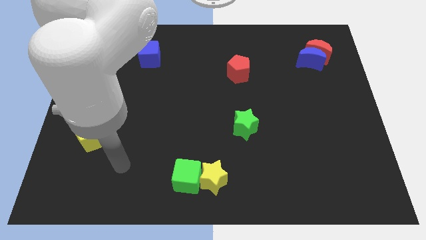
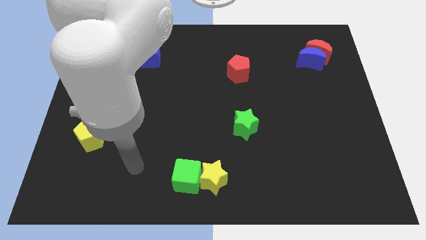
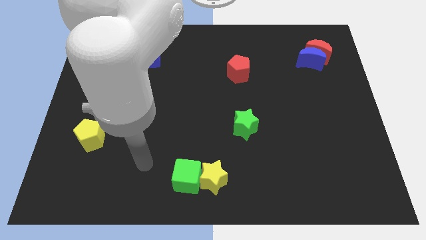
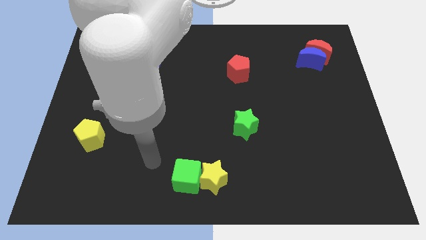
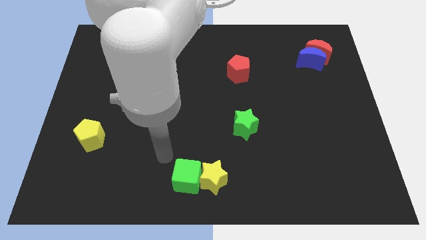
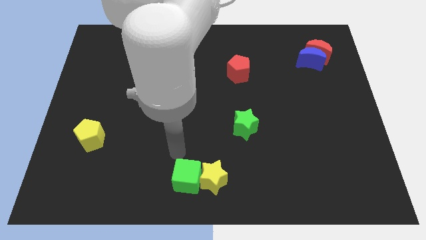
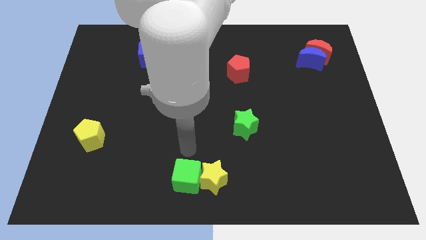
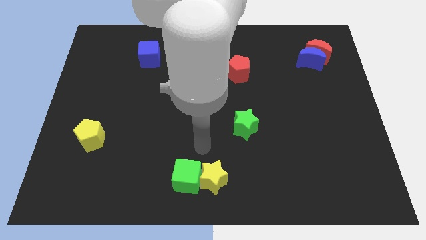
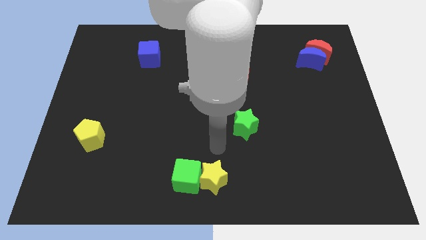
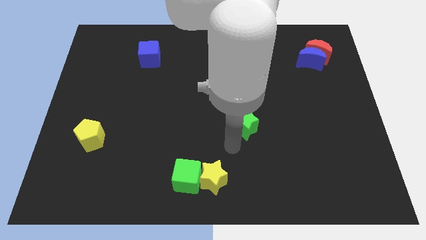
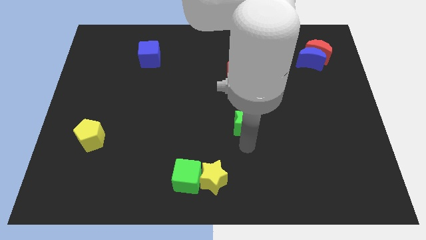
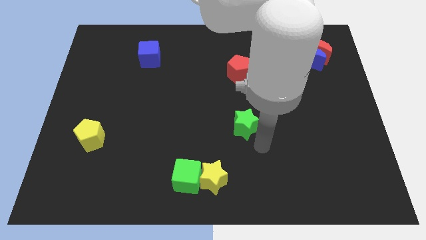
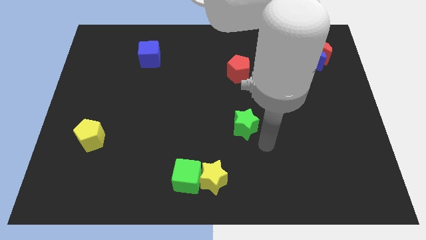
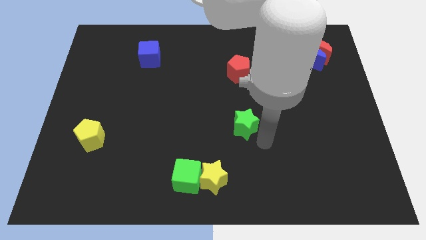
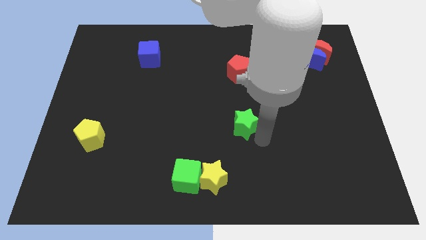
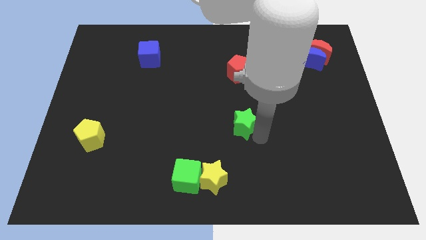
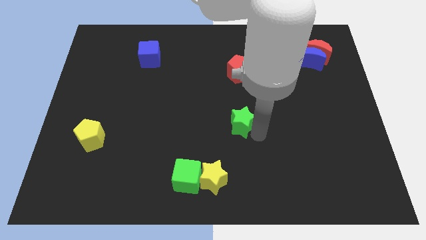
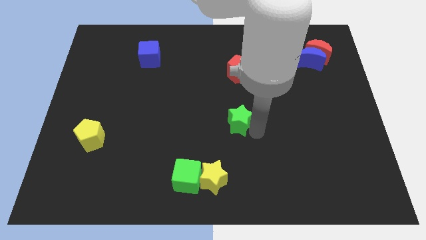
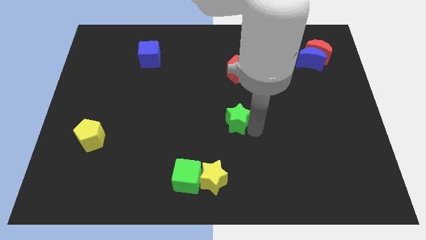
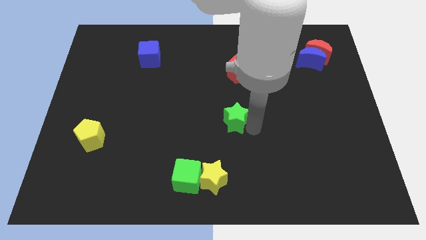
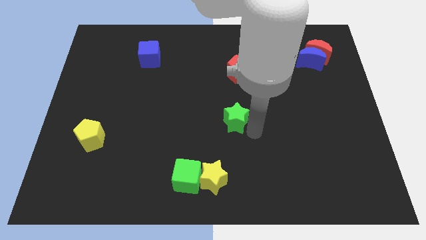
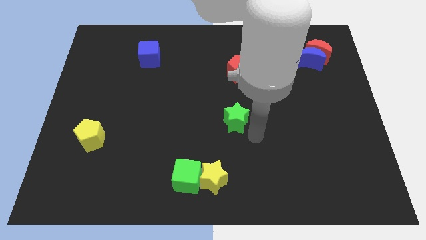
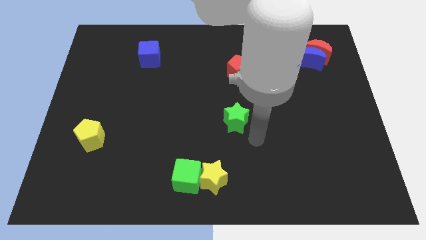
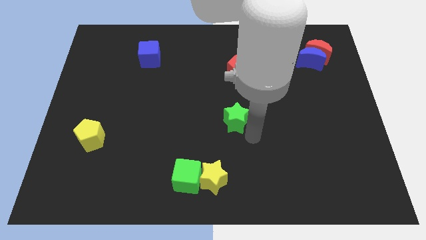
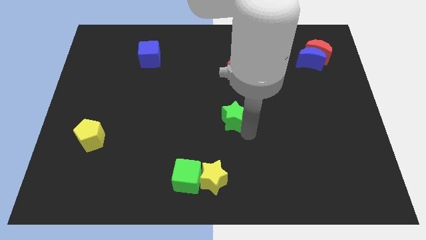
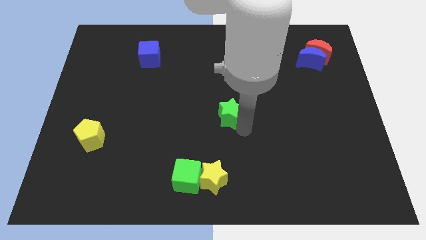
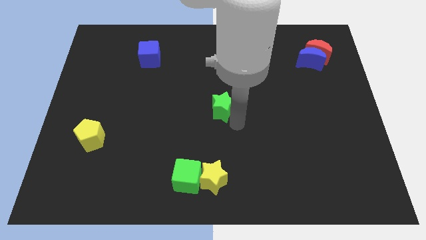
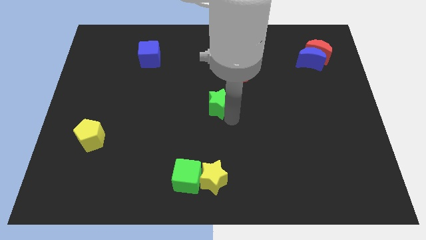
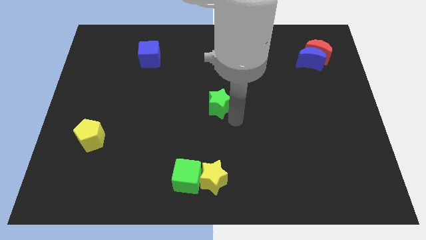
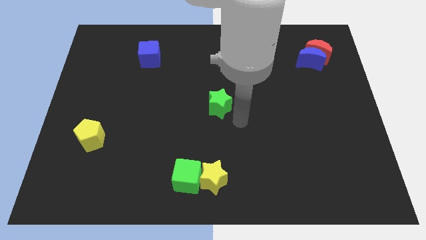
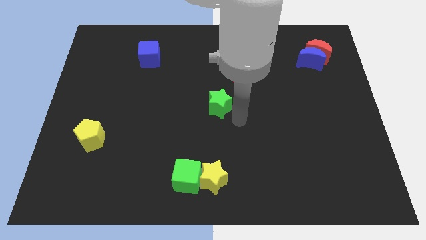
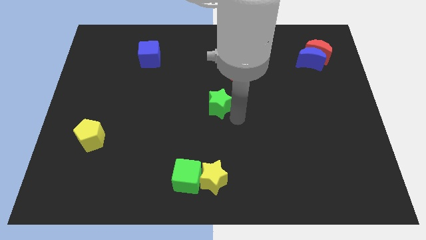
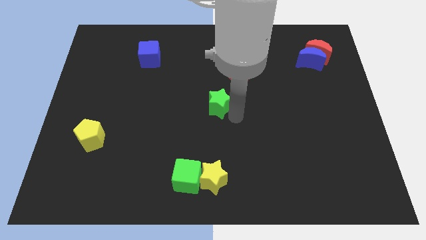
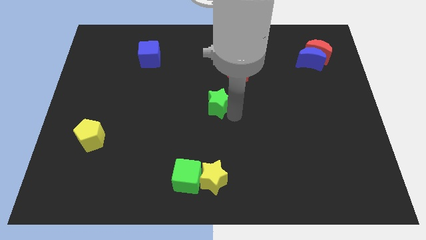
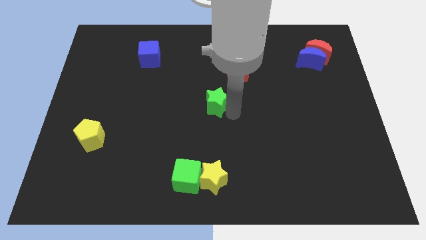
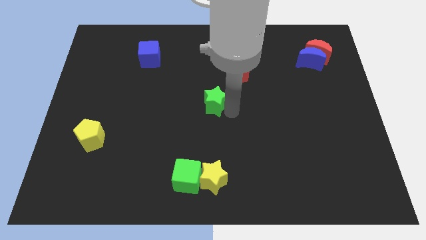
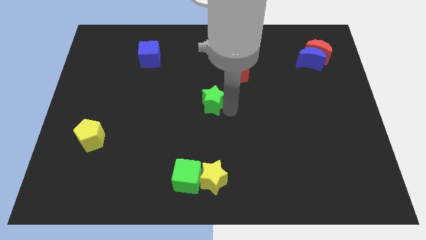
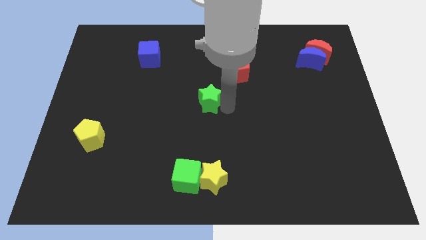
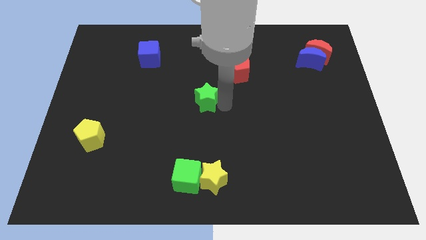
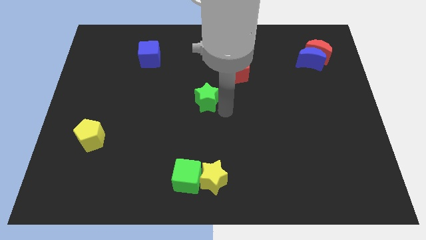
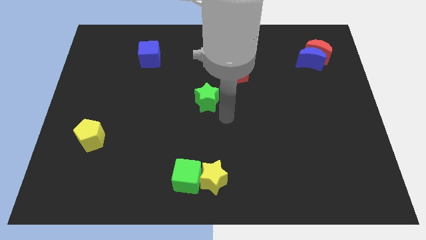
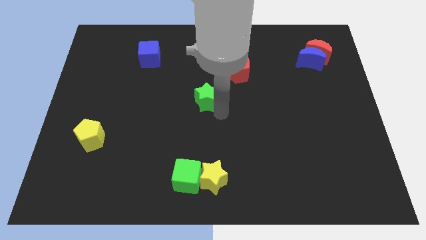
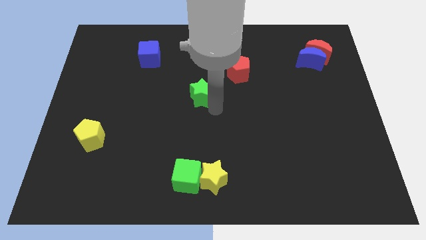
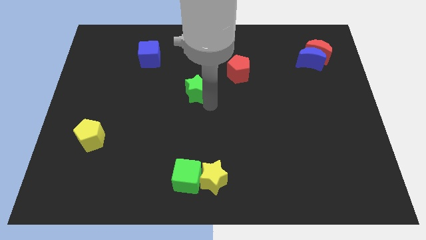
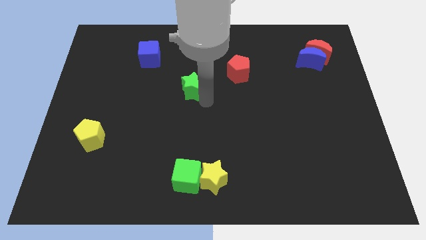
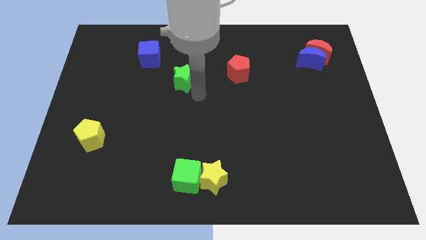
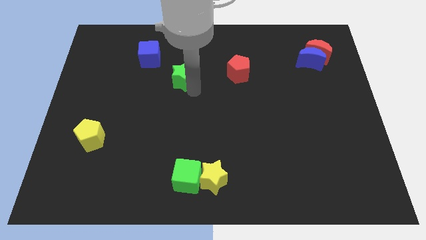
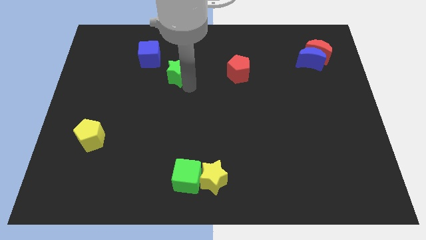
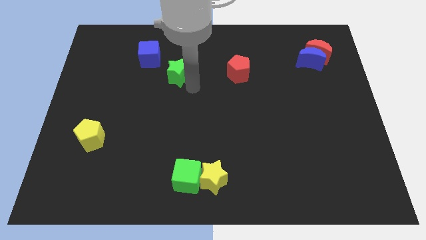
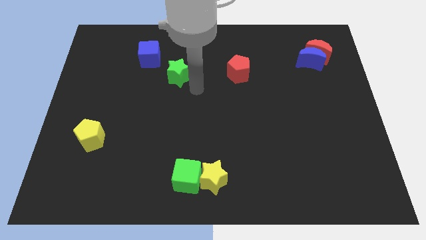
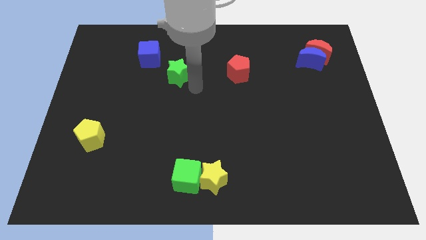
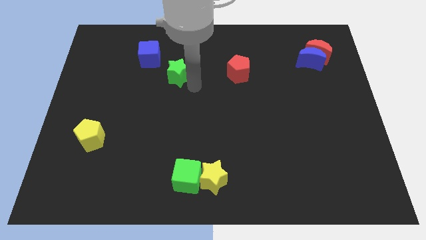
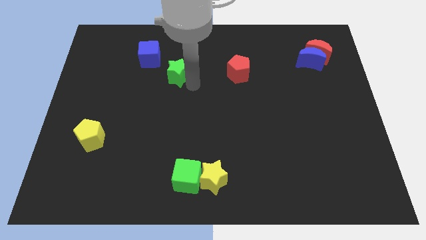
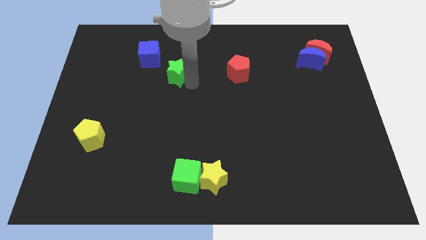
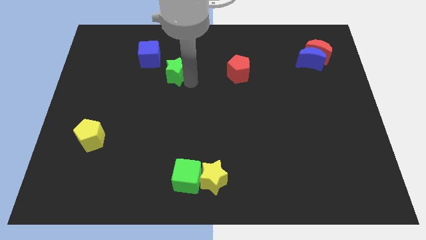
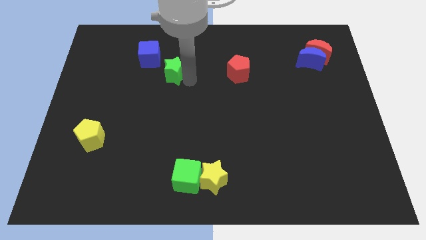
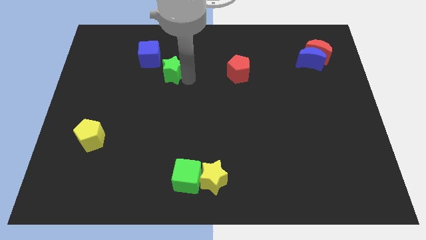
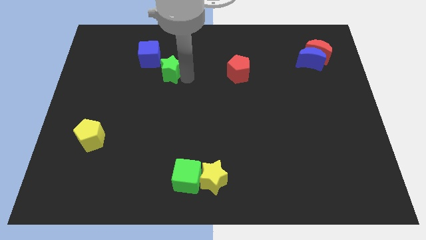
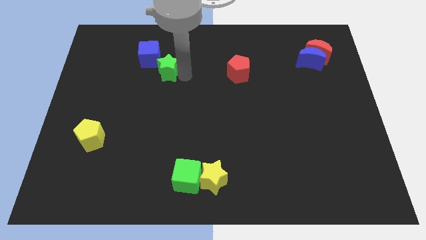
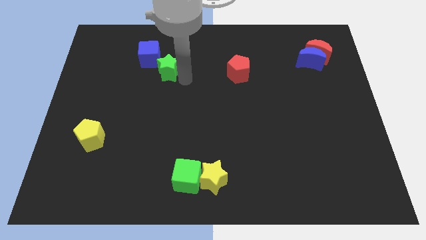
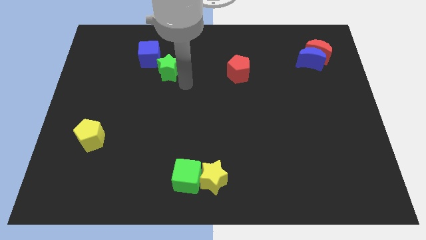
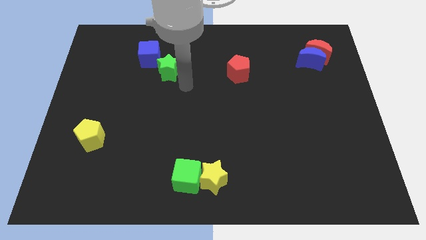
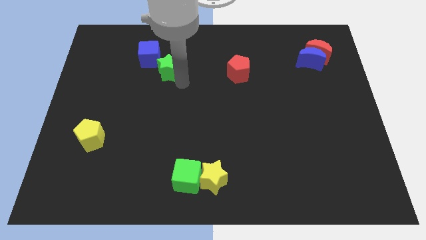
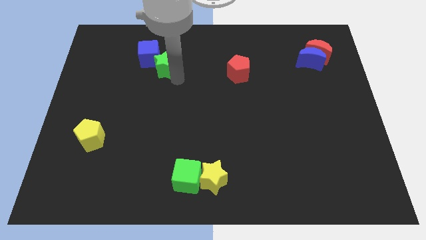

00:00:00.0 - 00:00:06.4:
slide the green star to the blue cube

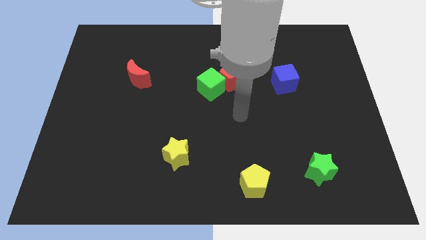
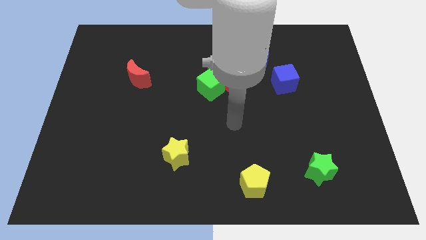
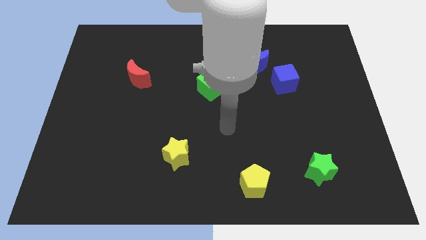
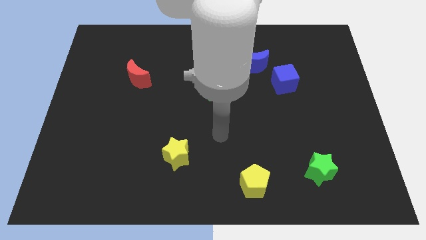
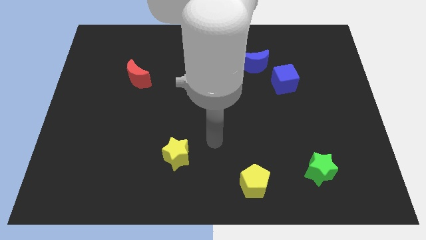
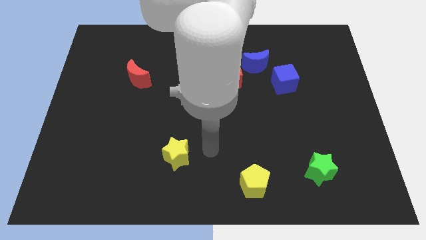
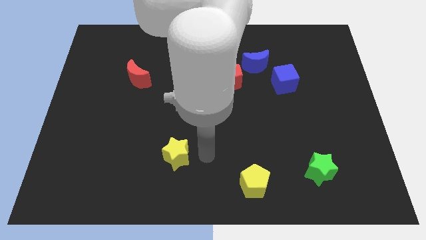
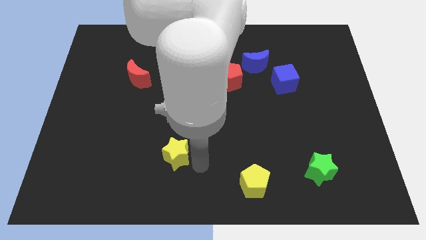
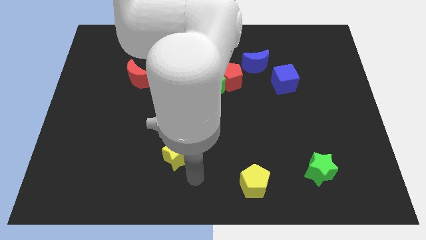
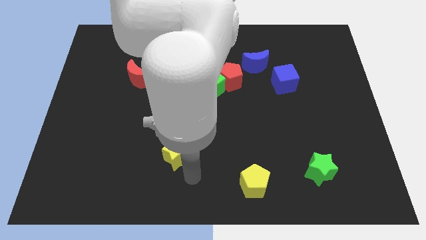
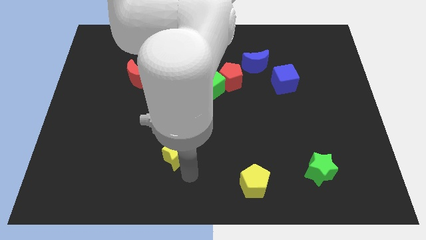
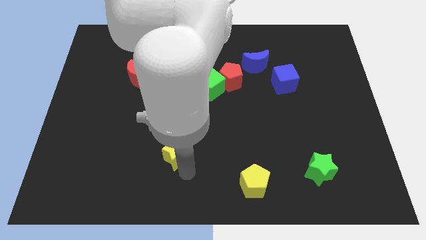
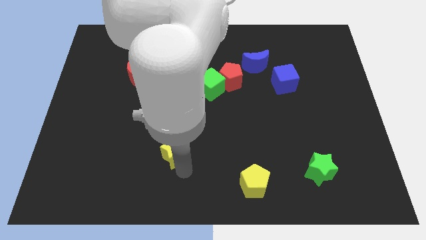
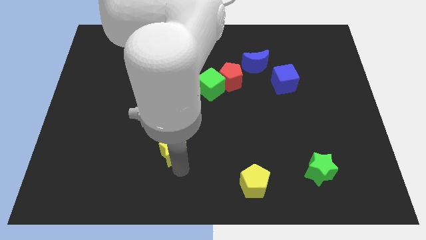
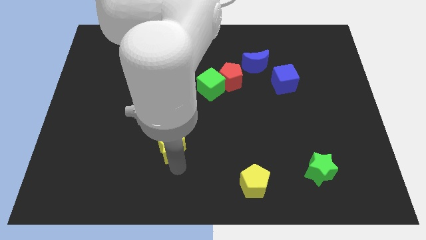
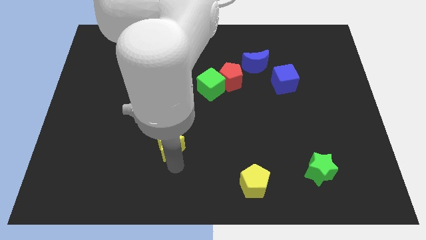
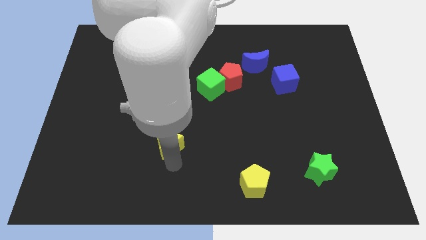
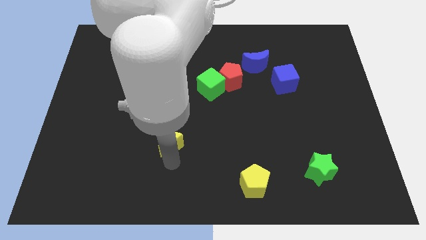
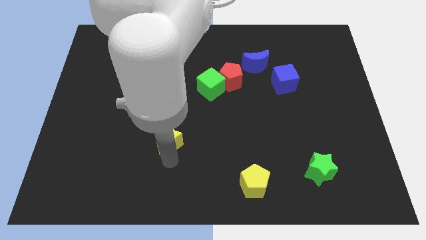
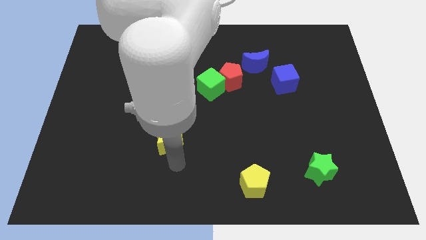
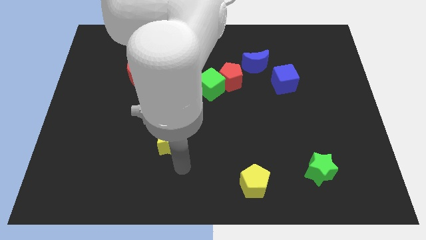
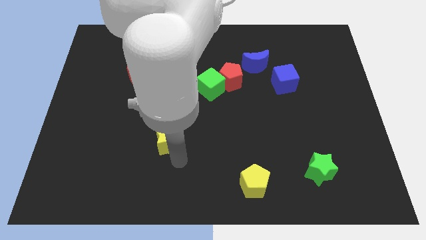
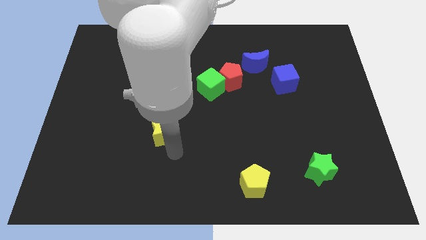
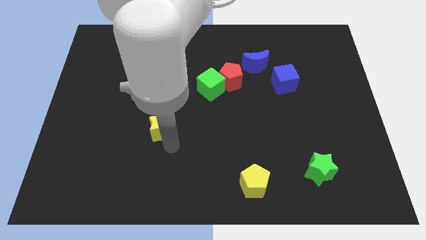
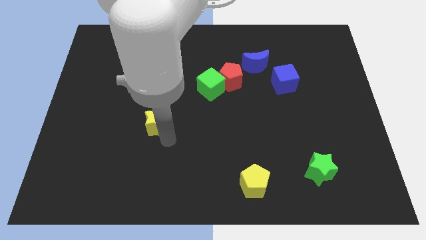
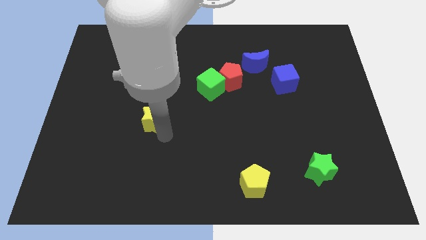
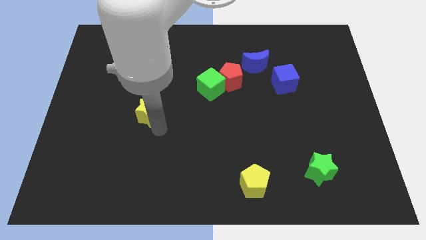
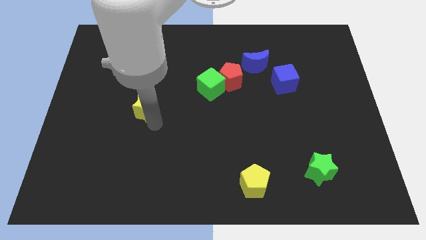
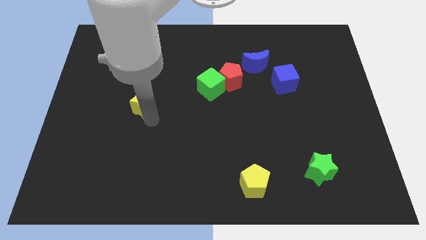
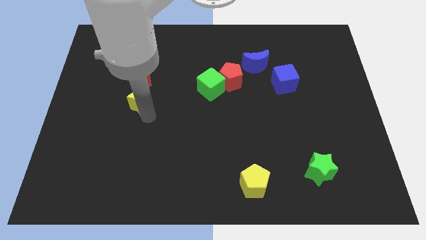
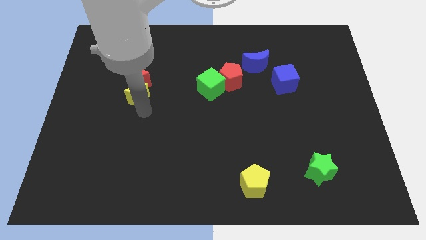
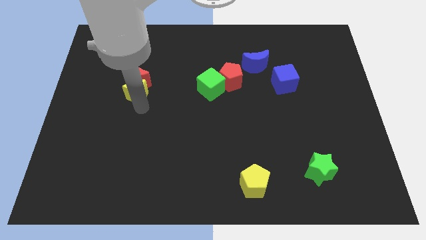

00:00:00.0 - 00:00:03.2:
slide the yellow star to the red moon
